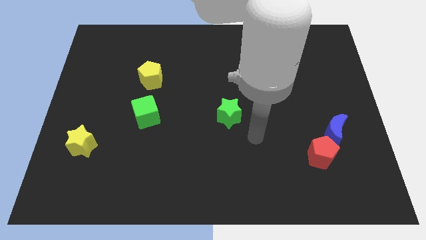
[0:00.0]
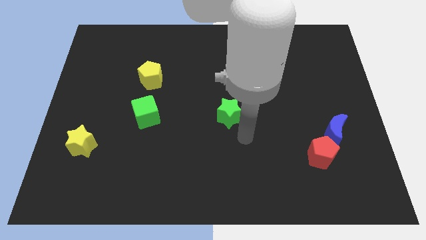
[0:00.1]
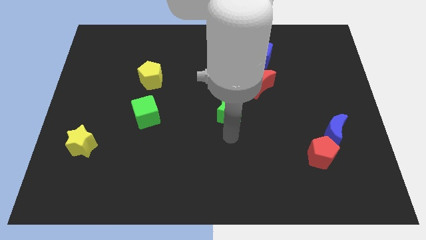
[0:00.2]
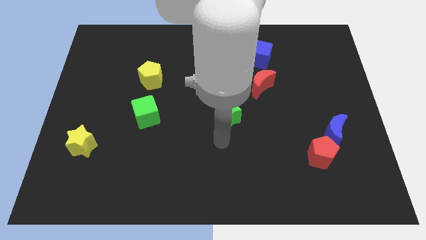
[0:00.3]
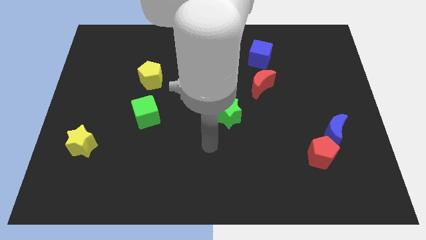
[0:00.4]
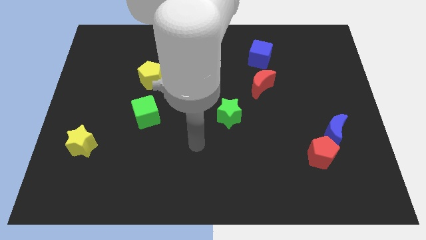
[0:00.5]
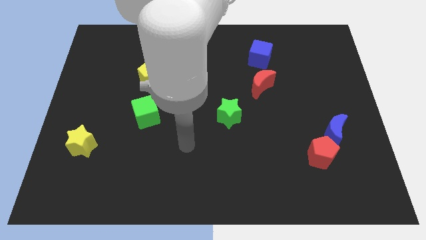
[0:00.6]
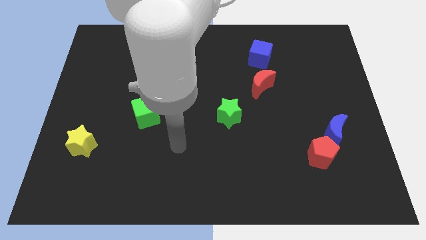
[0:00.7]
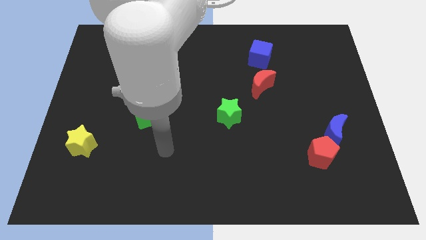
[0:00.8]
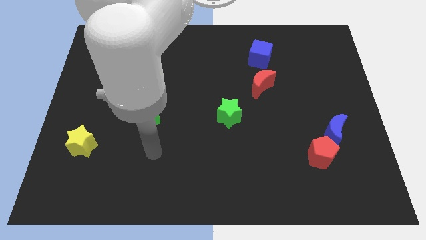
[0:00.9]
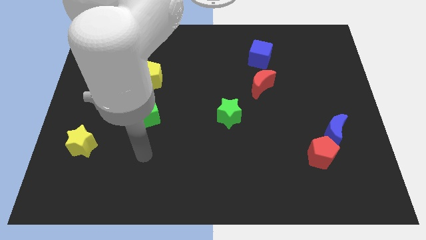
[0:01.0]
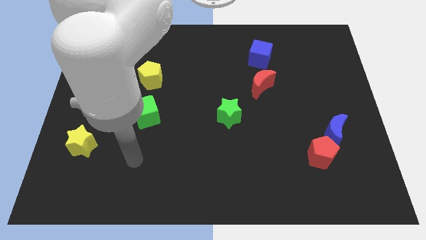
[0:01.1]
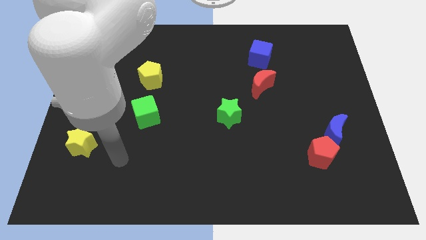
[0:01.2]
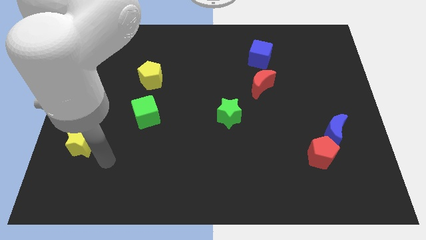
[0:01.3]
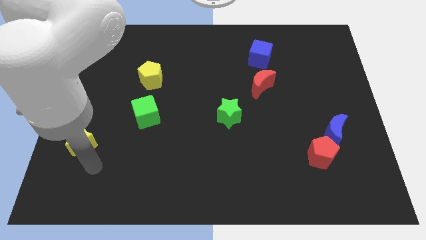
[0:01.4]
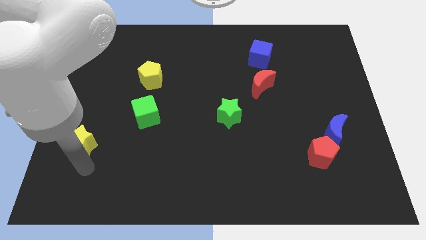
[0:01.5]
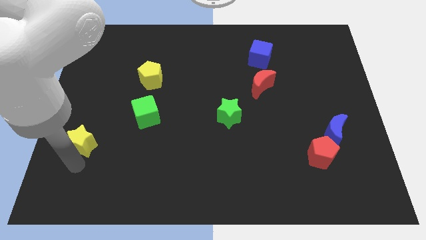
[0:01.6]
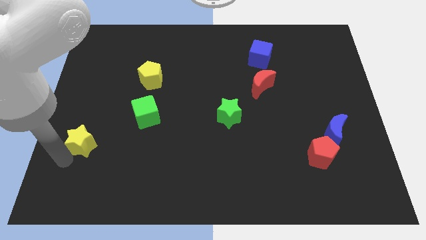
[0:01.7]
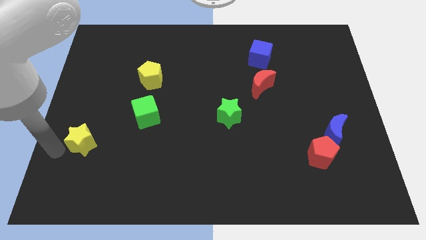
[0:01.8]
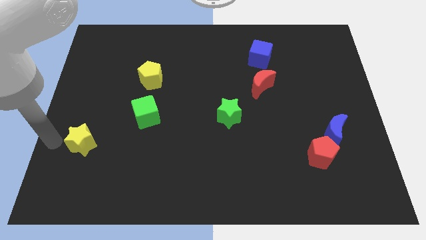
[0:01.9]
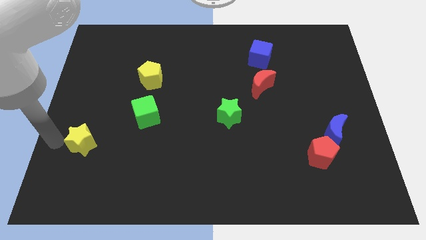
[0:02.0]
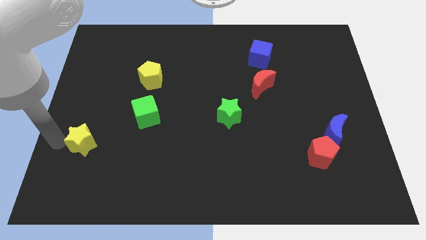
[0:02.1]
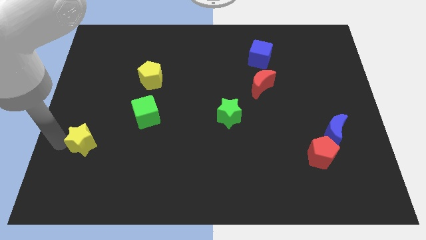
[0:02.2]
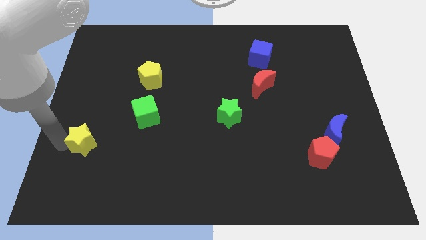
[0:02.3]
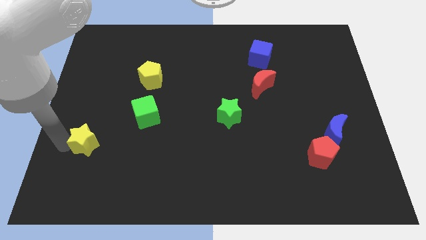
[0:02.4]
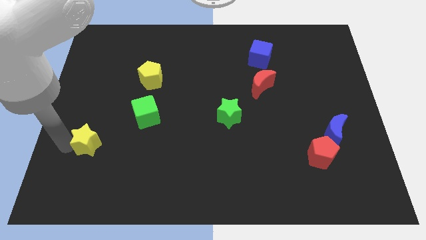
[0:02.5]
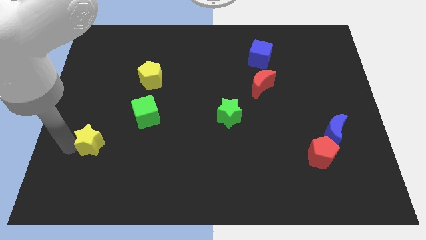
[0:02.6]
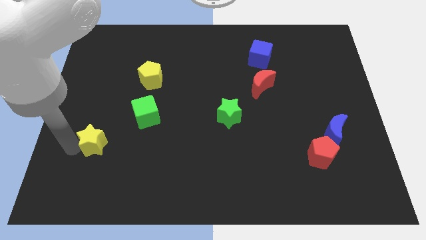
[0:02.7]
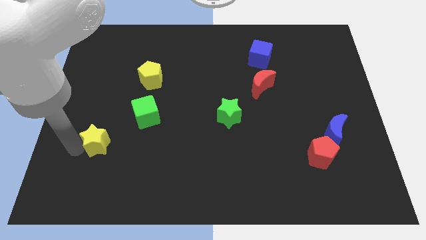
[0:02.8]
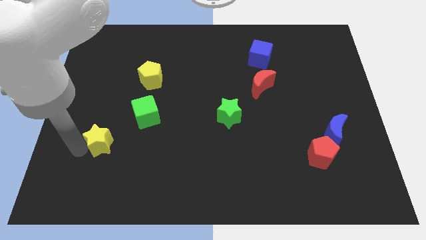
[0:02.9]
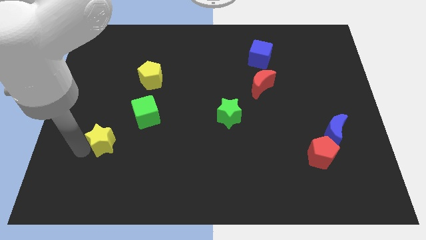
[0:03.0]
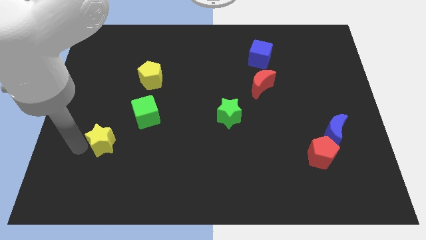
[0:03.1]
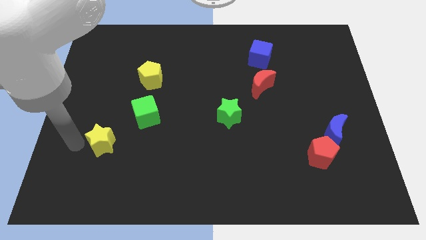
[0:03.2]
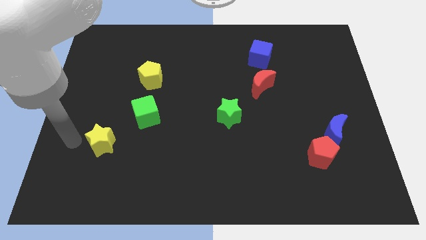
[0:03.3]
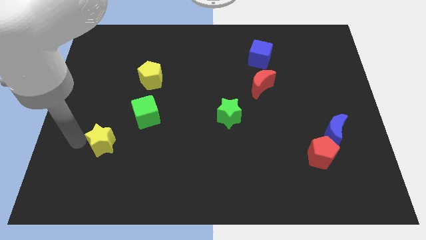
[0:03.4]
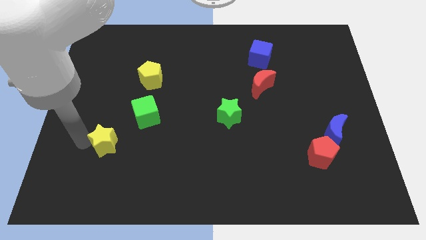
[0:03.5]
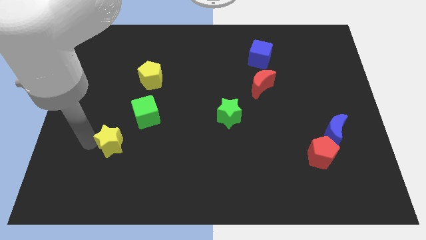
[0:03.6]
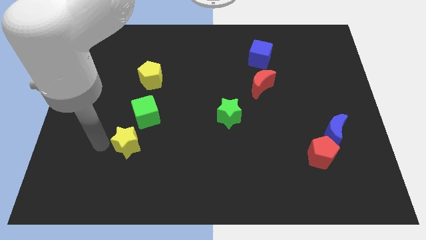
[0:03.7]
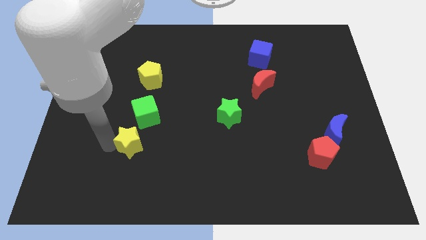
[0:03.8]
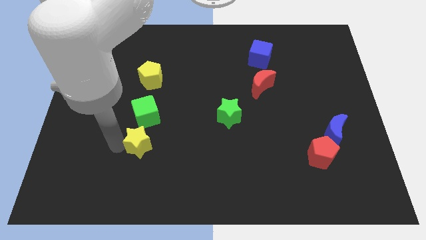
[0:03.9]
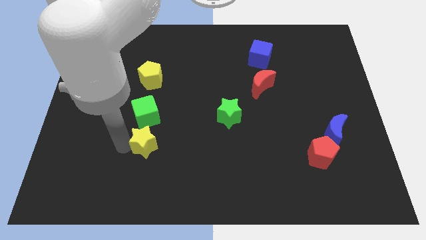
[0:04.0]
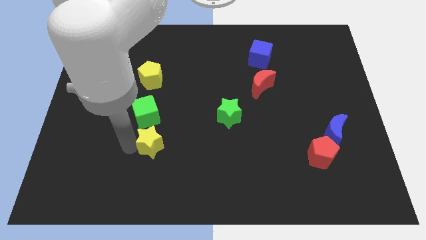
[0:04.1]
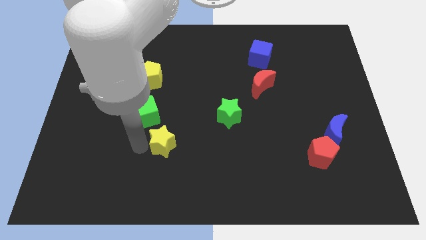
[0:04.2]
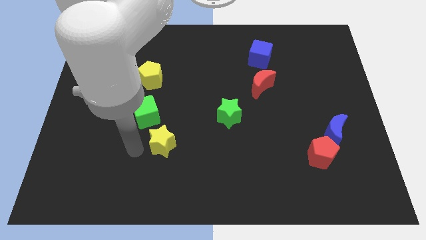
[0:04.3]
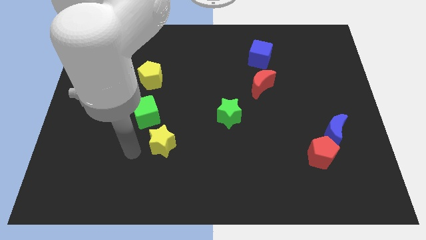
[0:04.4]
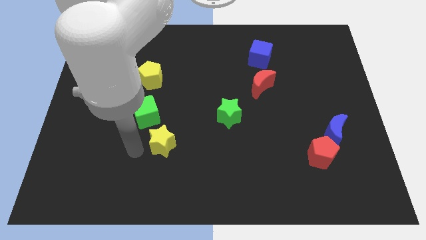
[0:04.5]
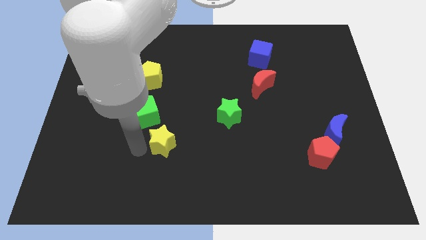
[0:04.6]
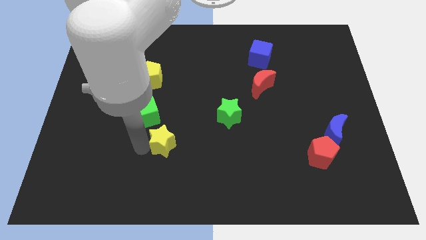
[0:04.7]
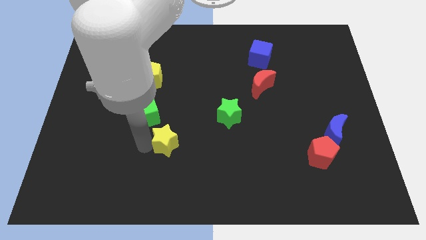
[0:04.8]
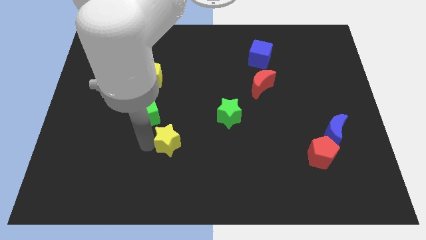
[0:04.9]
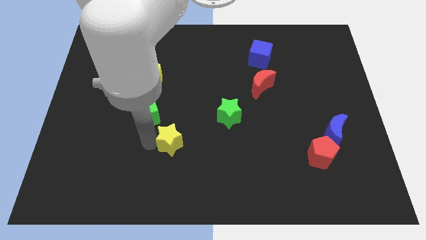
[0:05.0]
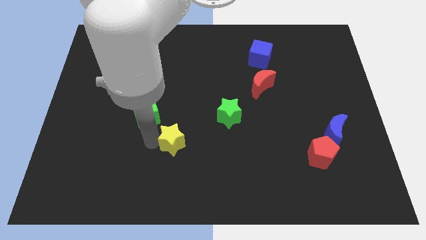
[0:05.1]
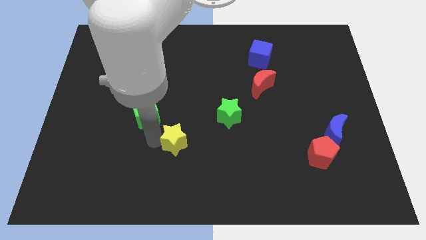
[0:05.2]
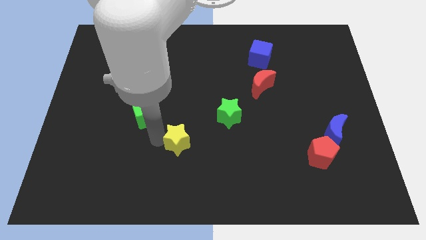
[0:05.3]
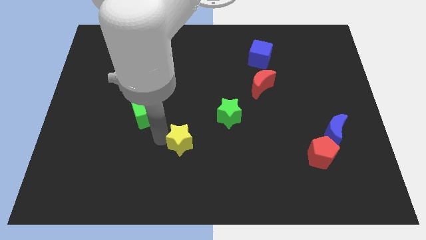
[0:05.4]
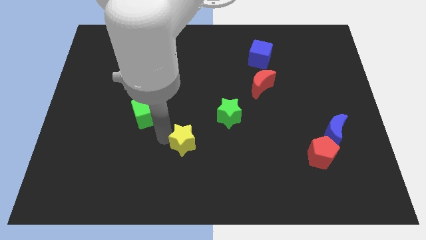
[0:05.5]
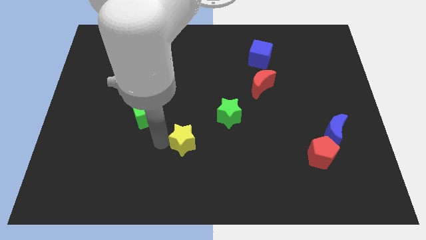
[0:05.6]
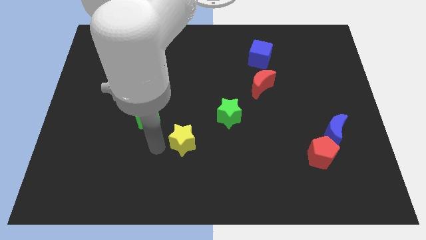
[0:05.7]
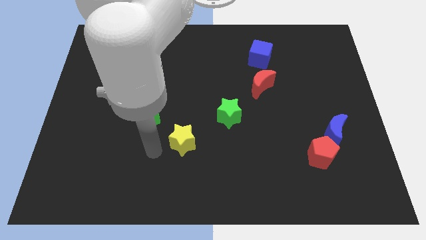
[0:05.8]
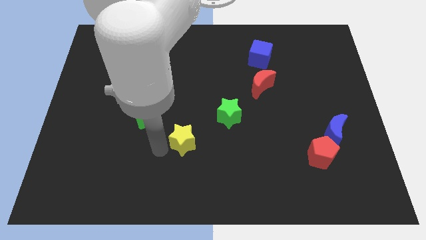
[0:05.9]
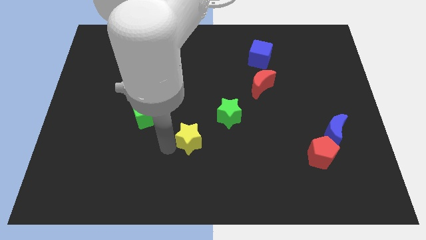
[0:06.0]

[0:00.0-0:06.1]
put the yellow star diagonally down and to the left of the green star

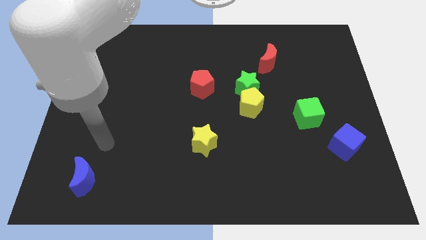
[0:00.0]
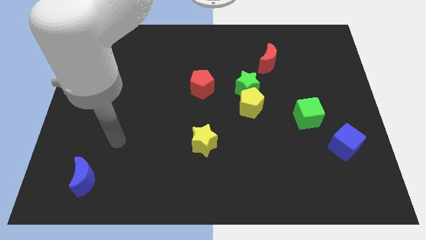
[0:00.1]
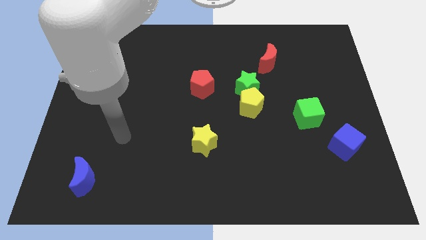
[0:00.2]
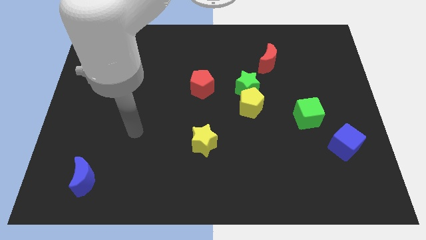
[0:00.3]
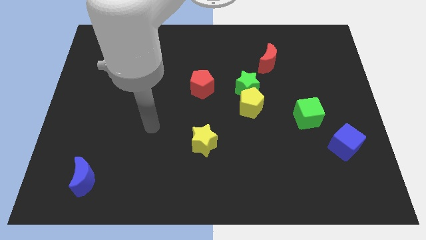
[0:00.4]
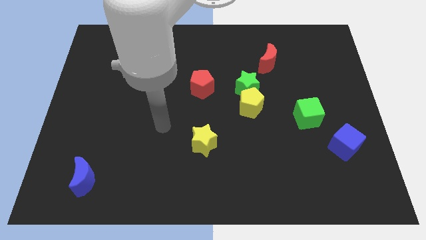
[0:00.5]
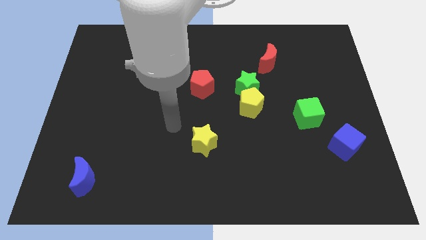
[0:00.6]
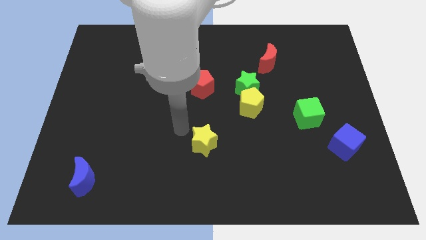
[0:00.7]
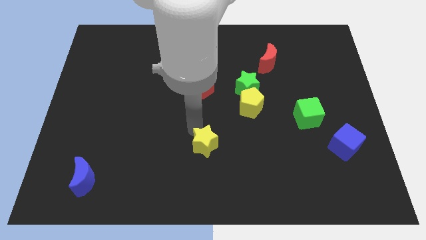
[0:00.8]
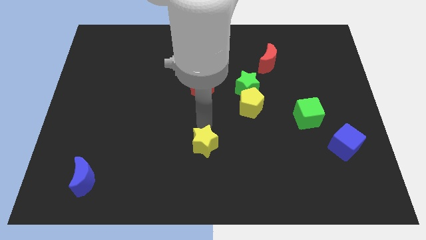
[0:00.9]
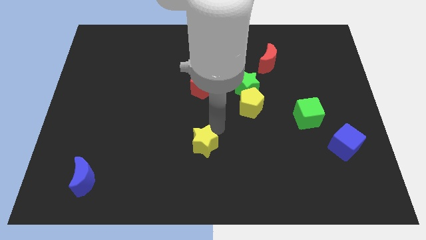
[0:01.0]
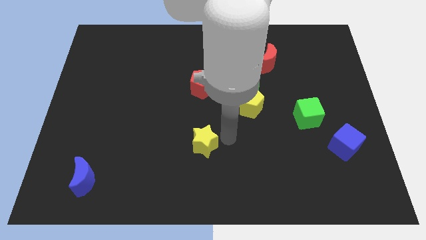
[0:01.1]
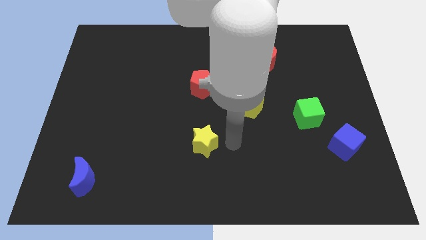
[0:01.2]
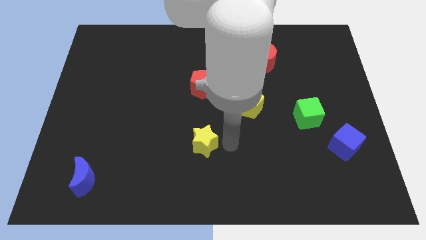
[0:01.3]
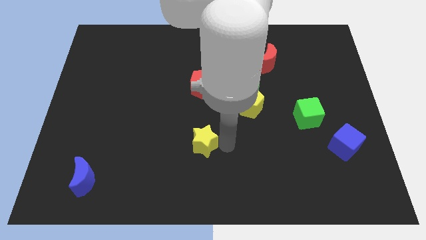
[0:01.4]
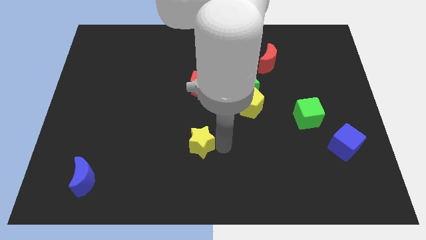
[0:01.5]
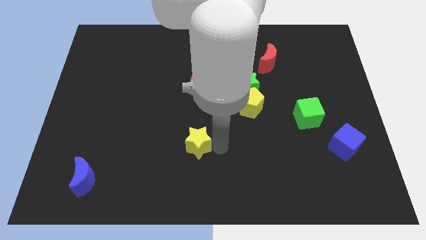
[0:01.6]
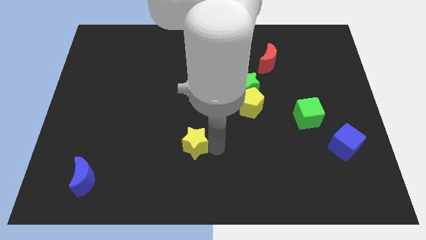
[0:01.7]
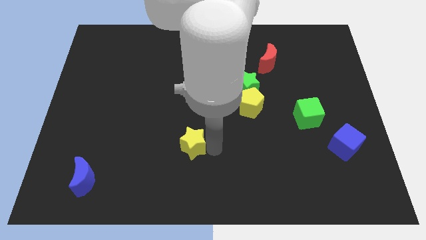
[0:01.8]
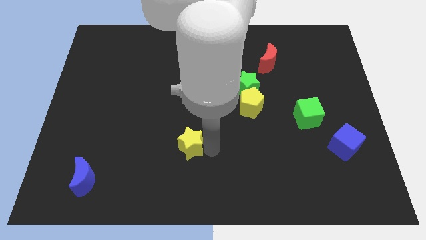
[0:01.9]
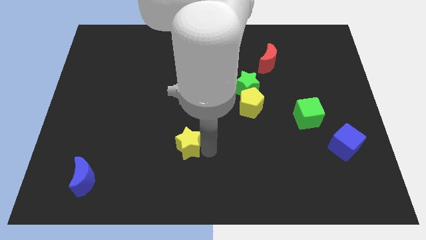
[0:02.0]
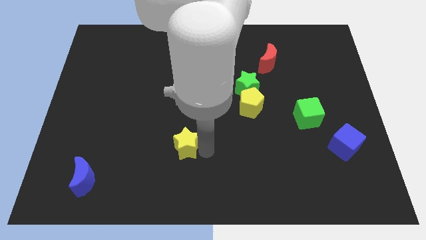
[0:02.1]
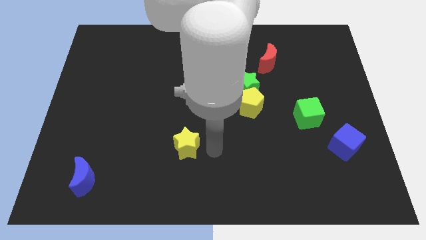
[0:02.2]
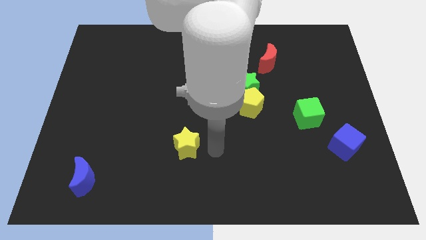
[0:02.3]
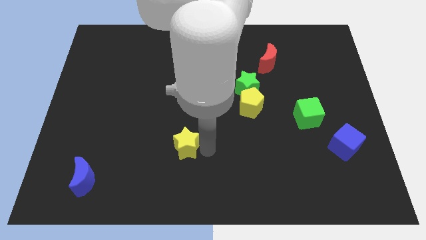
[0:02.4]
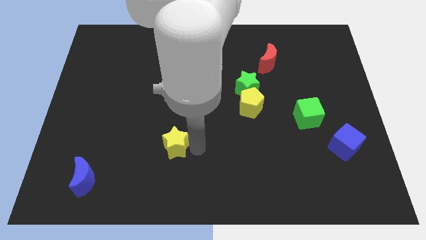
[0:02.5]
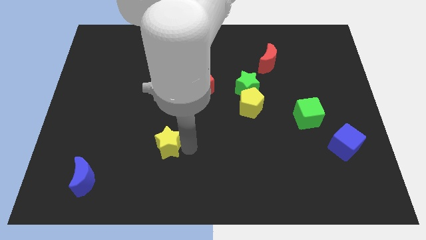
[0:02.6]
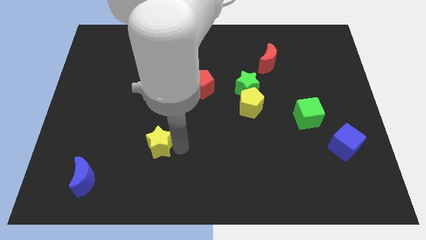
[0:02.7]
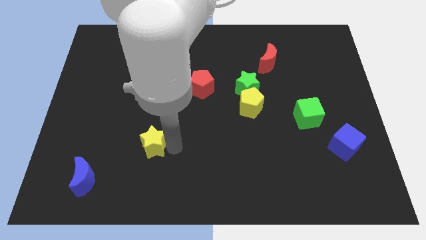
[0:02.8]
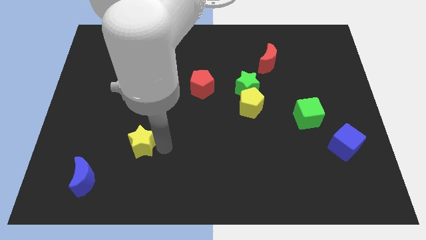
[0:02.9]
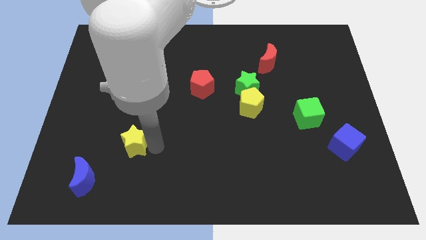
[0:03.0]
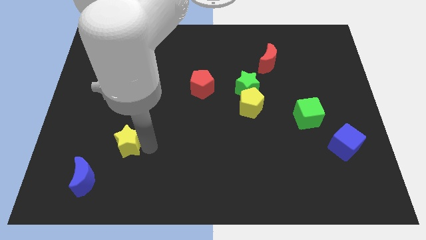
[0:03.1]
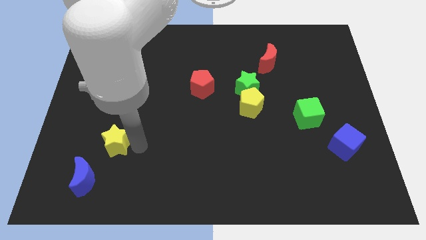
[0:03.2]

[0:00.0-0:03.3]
slide the yellow star to the top side of the blue moon
